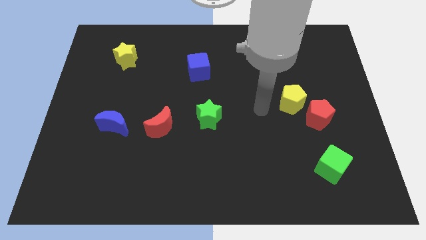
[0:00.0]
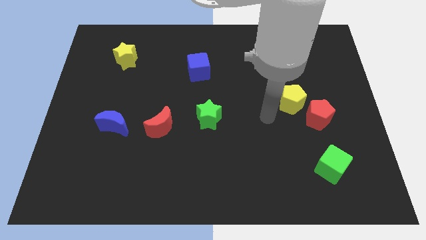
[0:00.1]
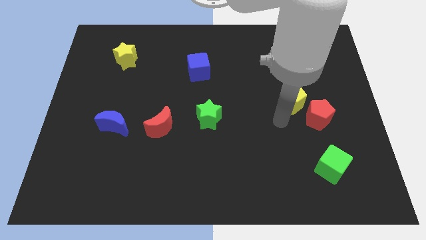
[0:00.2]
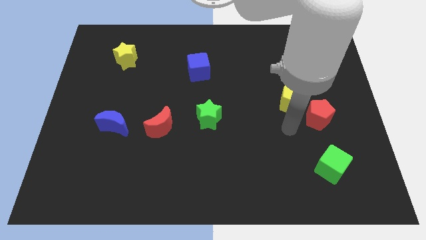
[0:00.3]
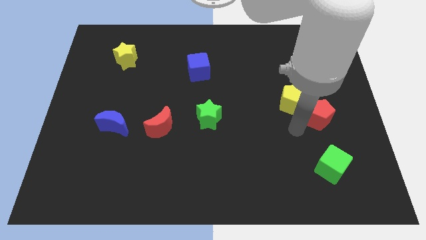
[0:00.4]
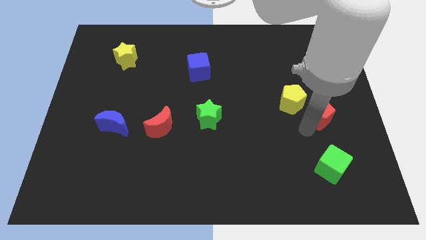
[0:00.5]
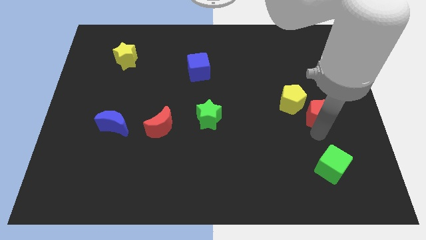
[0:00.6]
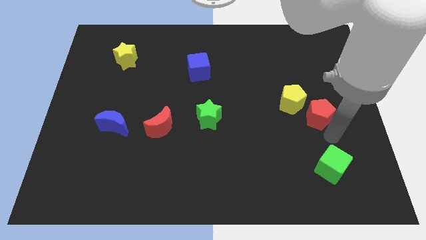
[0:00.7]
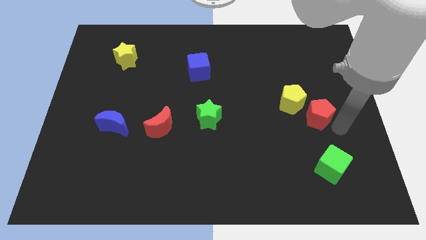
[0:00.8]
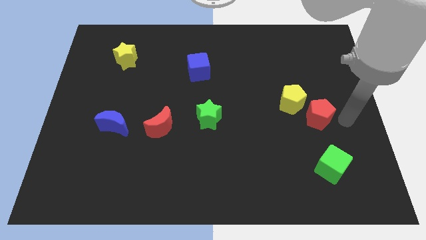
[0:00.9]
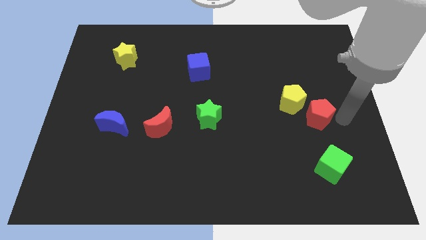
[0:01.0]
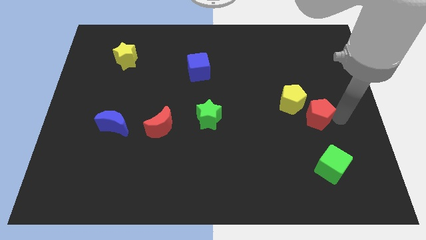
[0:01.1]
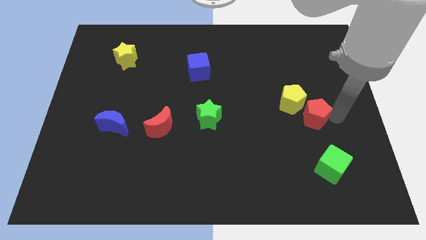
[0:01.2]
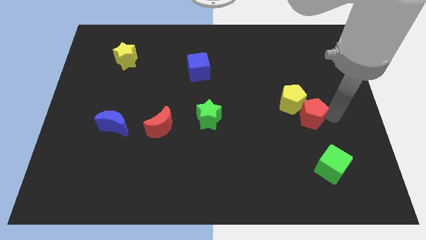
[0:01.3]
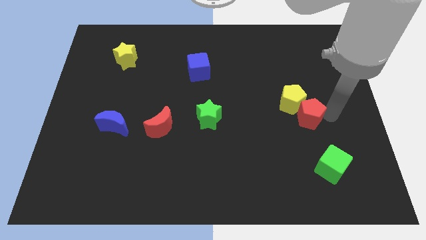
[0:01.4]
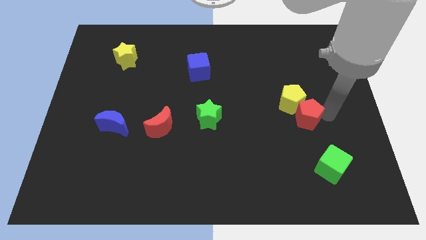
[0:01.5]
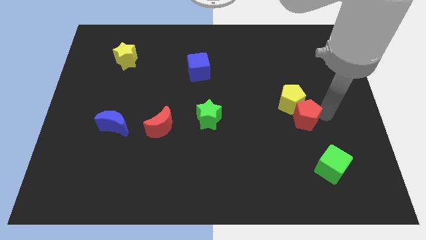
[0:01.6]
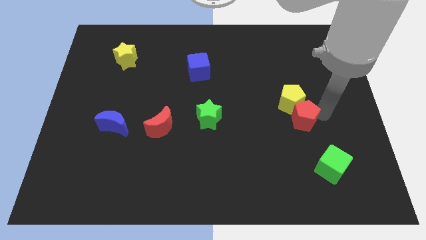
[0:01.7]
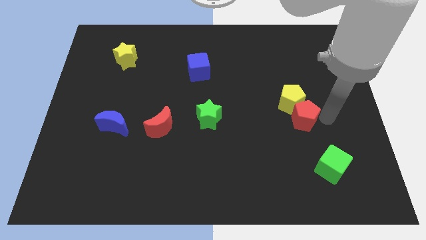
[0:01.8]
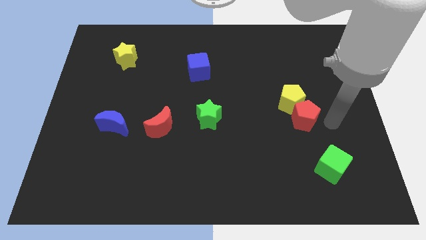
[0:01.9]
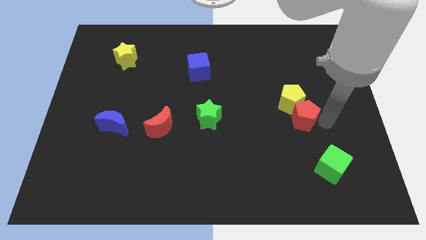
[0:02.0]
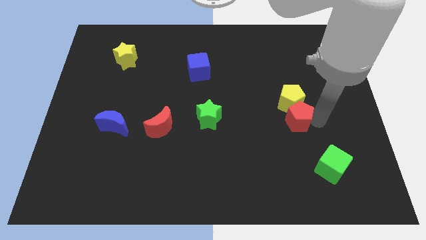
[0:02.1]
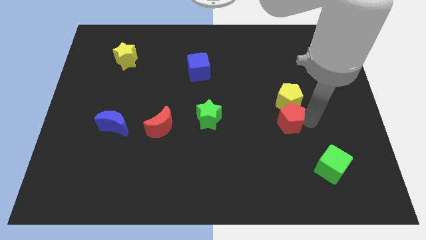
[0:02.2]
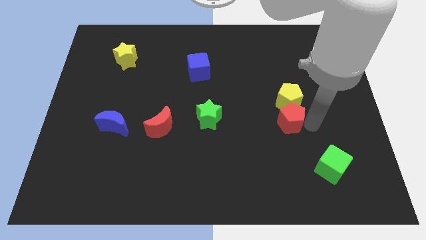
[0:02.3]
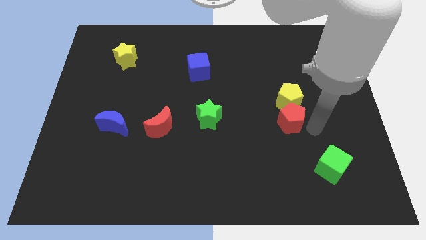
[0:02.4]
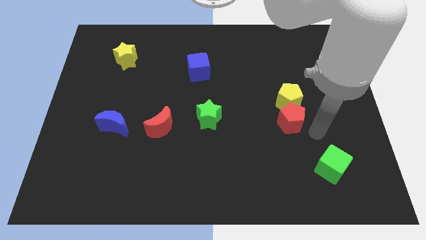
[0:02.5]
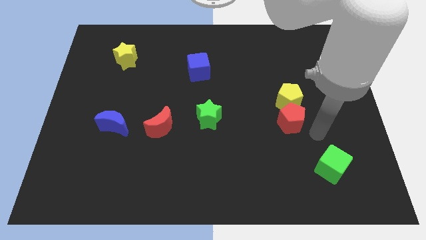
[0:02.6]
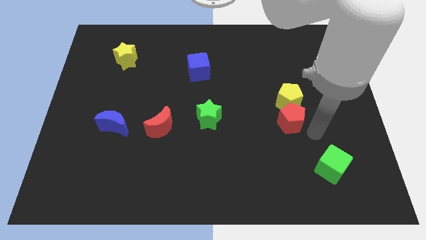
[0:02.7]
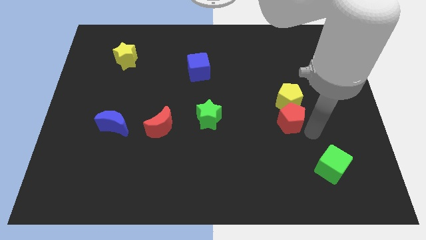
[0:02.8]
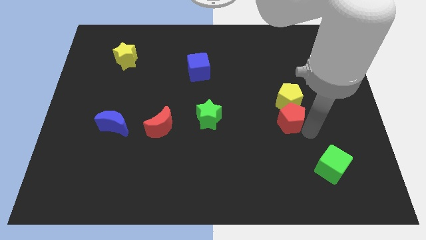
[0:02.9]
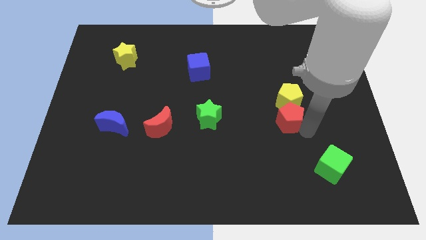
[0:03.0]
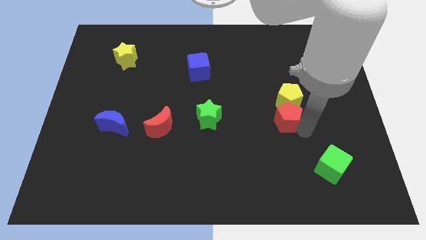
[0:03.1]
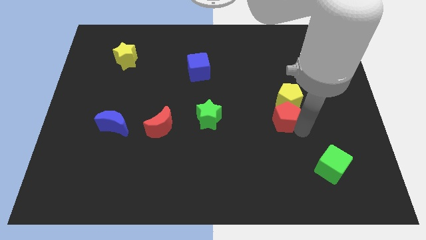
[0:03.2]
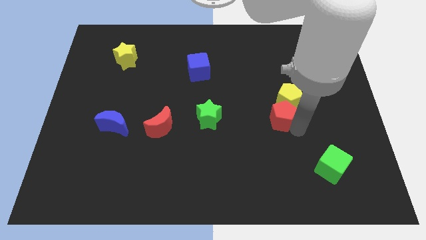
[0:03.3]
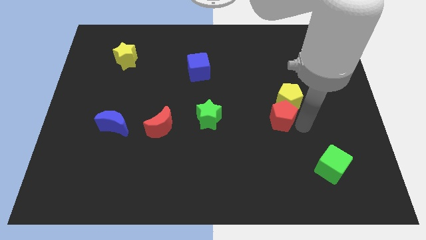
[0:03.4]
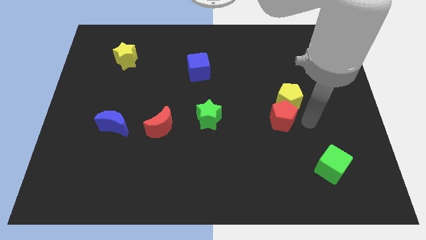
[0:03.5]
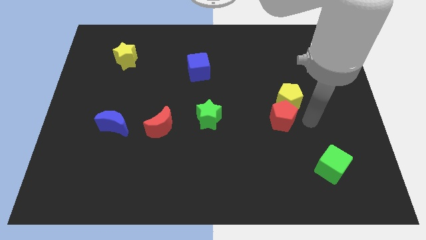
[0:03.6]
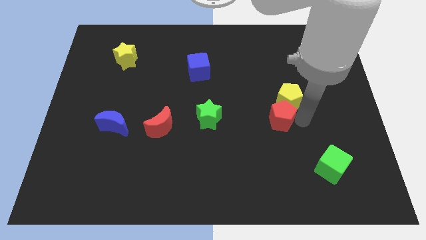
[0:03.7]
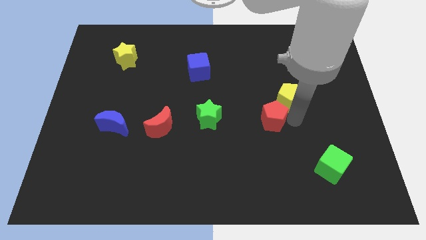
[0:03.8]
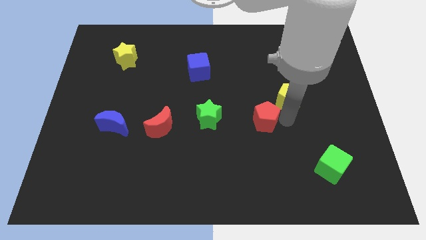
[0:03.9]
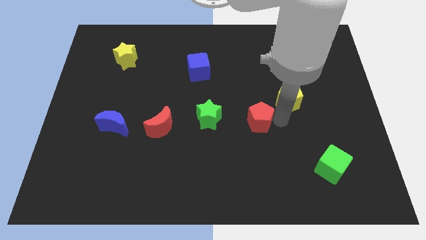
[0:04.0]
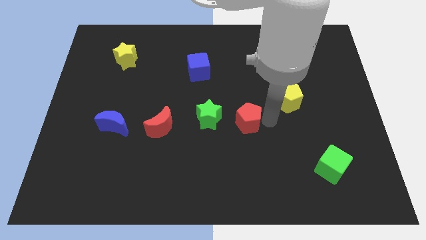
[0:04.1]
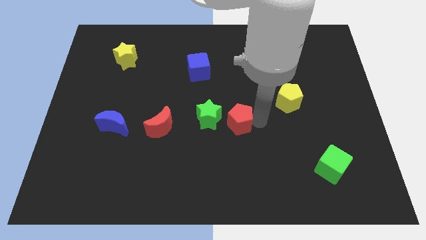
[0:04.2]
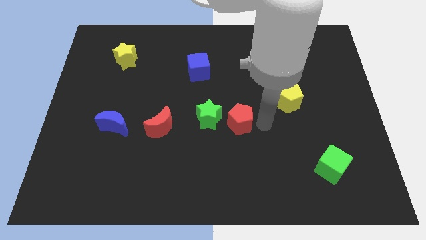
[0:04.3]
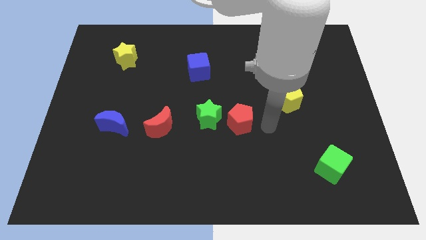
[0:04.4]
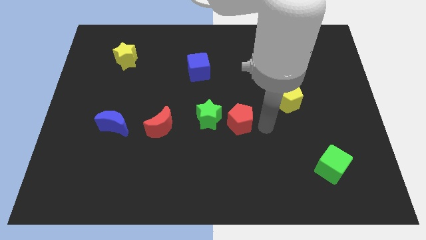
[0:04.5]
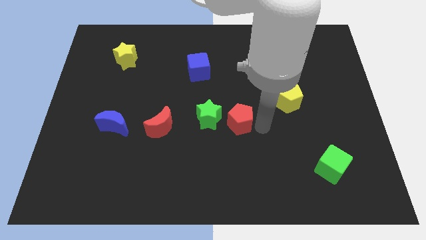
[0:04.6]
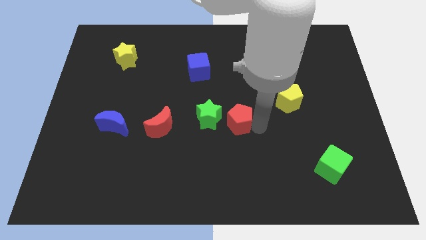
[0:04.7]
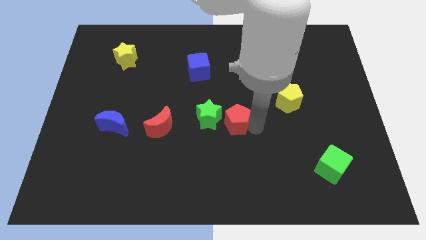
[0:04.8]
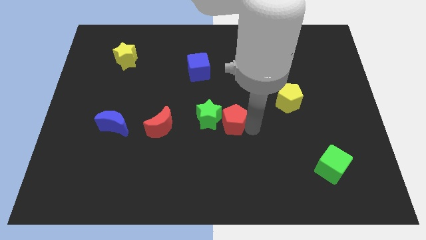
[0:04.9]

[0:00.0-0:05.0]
put the red pentagon next to the green star

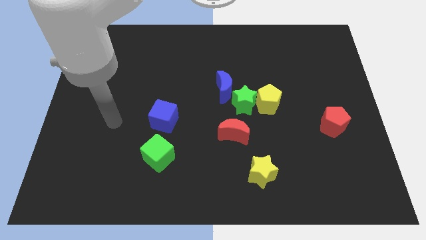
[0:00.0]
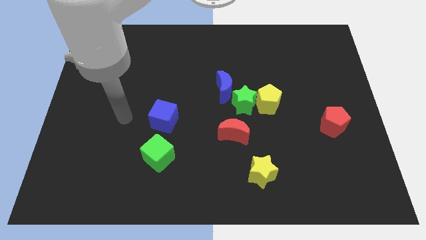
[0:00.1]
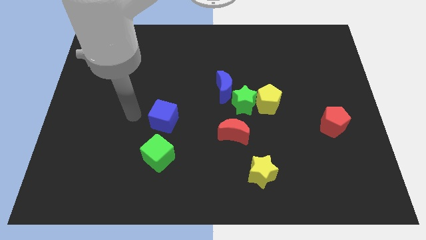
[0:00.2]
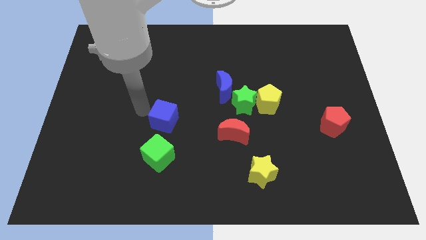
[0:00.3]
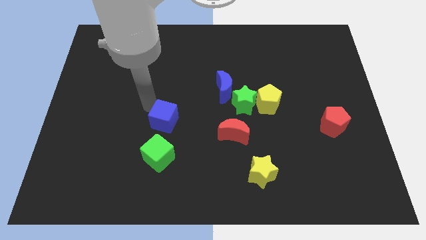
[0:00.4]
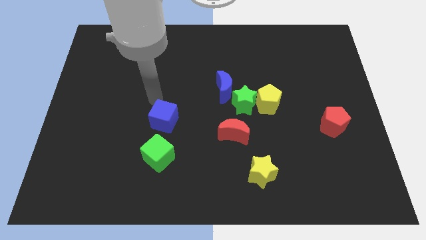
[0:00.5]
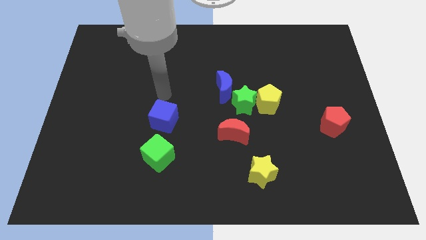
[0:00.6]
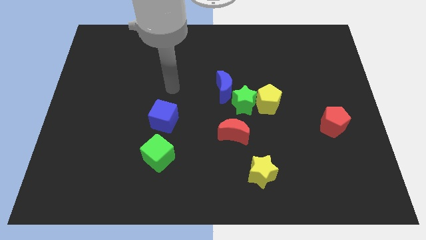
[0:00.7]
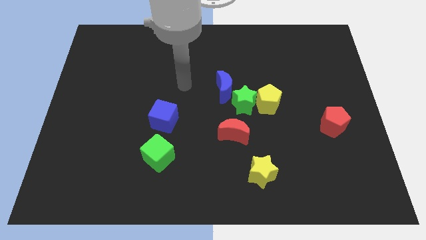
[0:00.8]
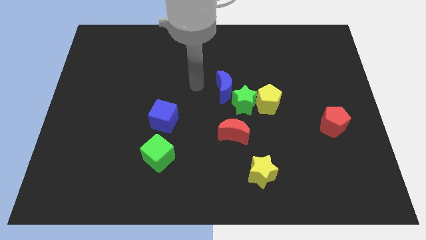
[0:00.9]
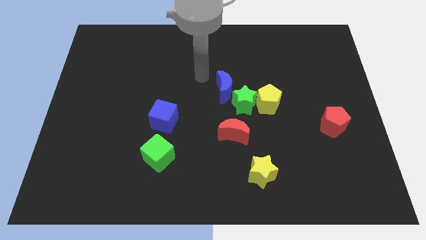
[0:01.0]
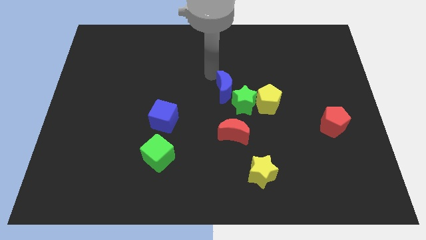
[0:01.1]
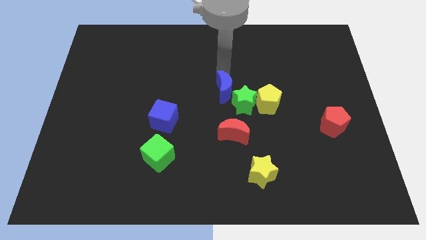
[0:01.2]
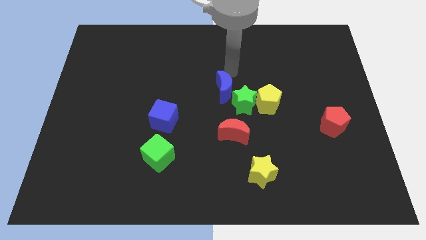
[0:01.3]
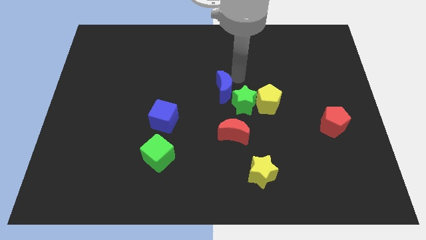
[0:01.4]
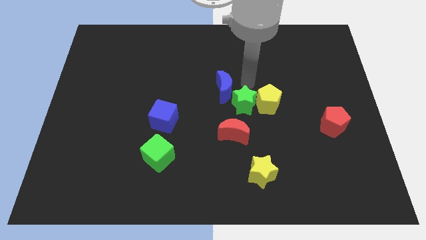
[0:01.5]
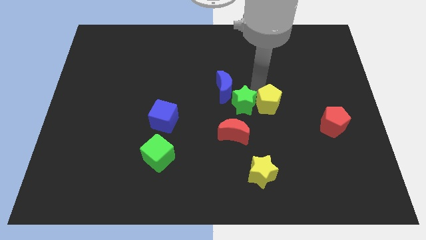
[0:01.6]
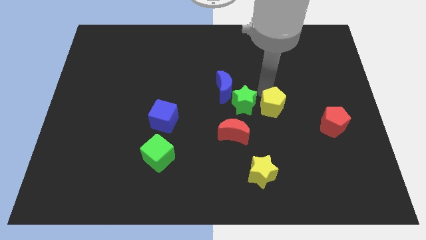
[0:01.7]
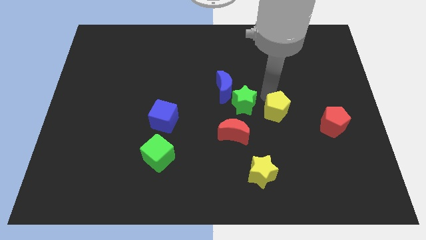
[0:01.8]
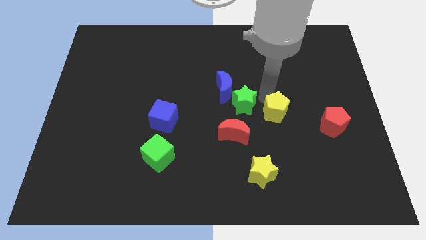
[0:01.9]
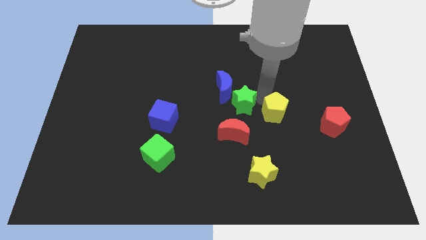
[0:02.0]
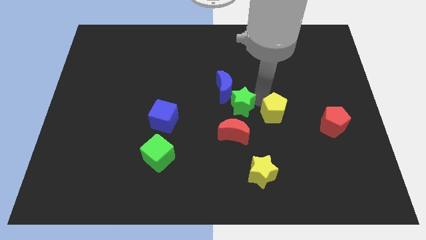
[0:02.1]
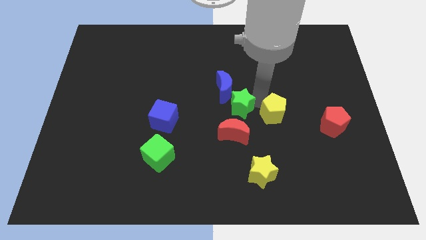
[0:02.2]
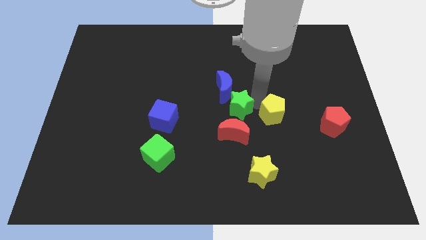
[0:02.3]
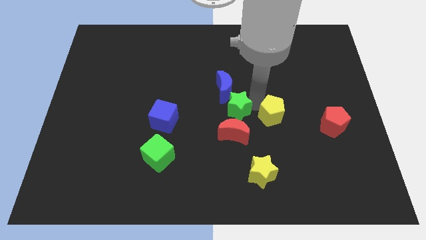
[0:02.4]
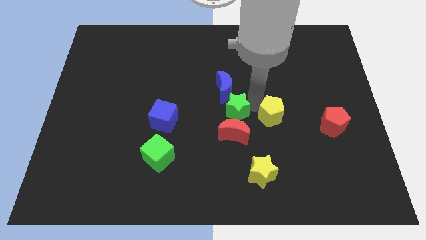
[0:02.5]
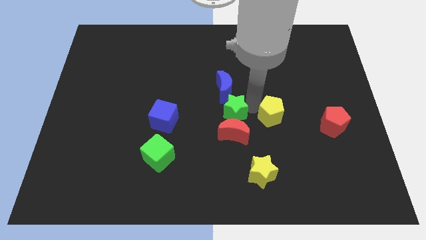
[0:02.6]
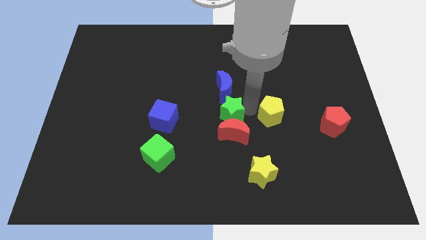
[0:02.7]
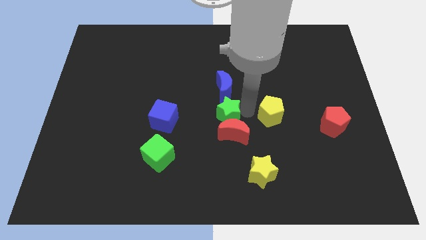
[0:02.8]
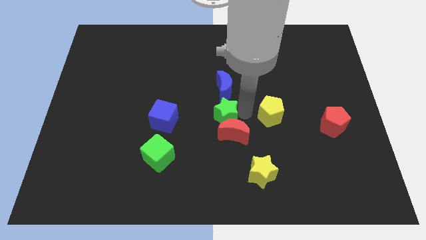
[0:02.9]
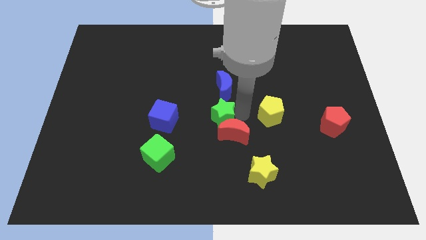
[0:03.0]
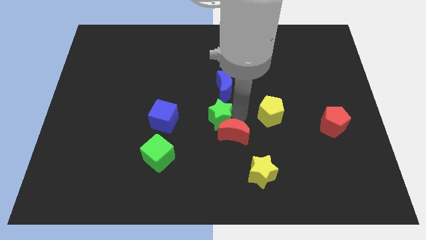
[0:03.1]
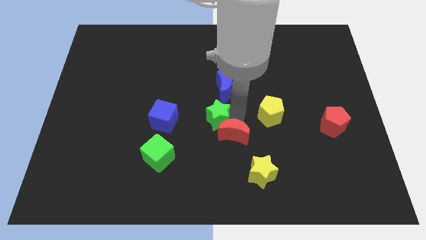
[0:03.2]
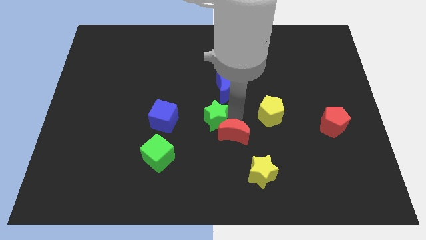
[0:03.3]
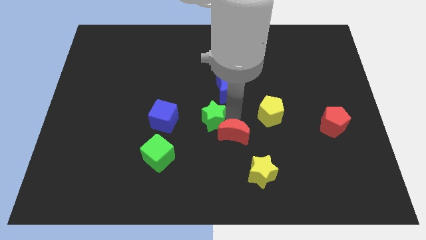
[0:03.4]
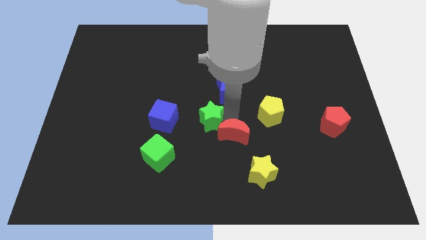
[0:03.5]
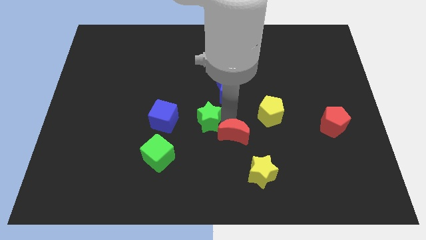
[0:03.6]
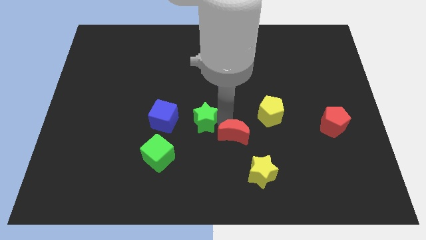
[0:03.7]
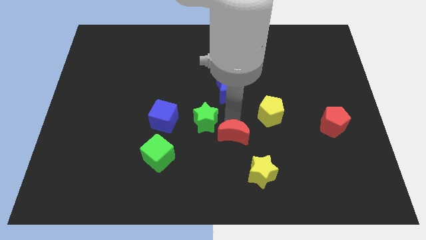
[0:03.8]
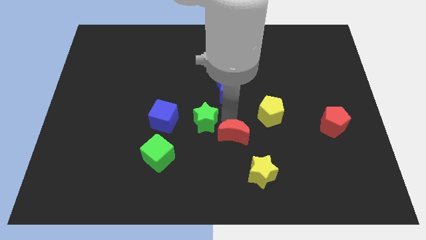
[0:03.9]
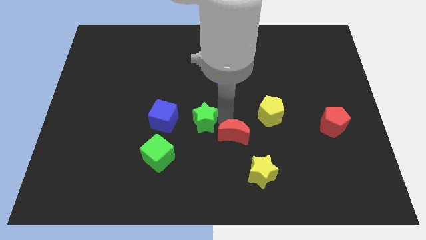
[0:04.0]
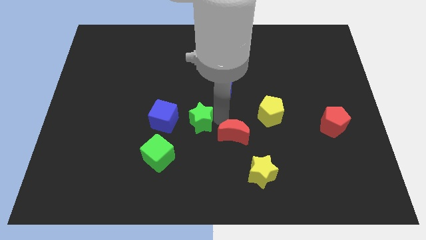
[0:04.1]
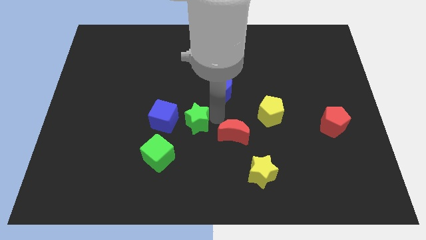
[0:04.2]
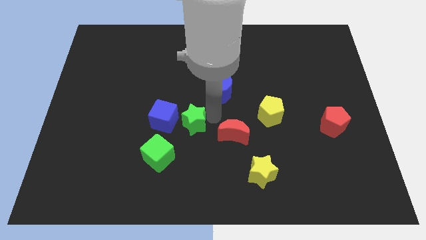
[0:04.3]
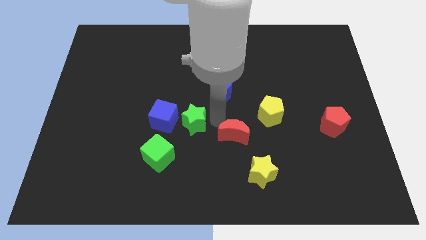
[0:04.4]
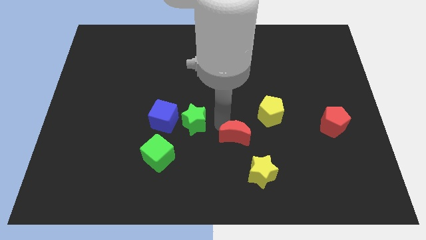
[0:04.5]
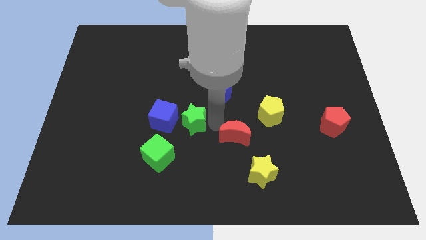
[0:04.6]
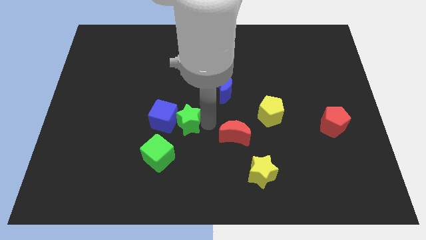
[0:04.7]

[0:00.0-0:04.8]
put the green star towards the blue cube
